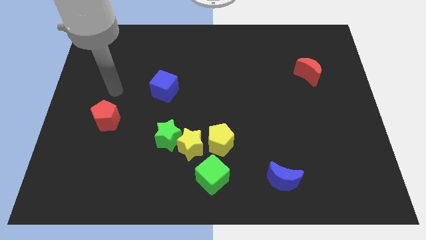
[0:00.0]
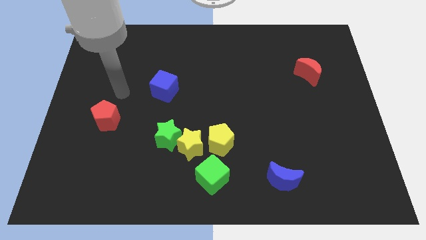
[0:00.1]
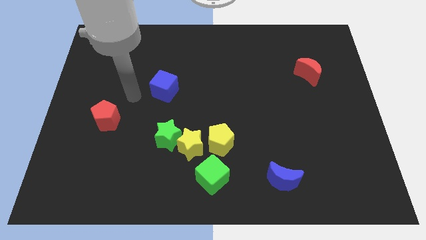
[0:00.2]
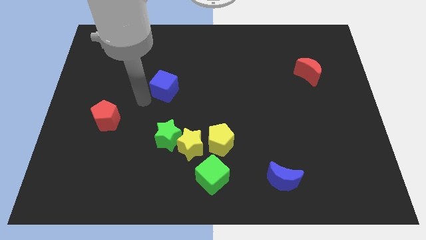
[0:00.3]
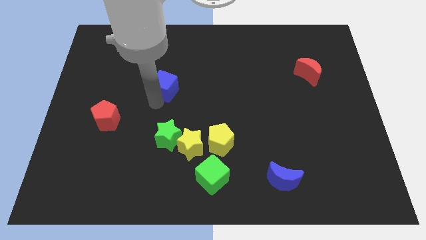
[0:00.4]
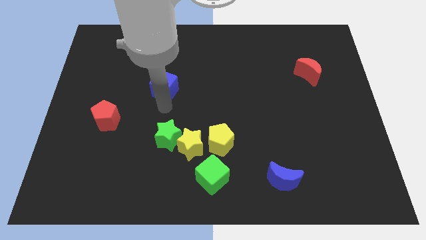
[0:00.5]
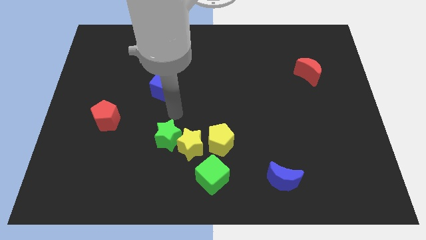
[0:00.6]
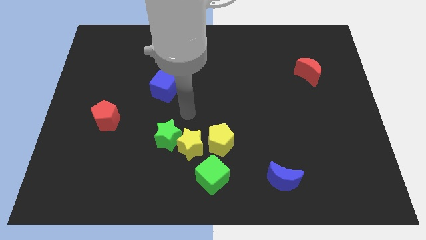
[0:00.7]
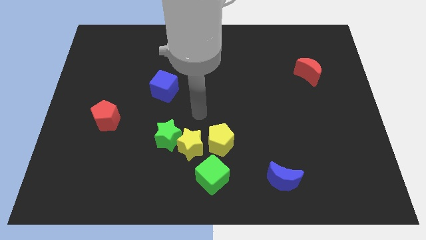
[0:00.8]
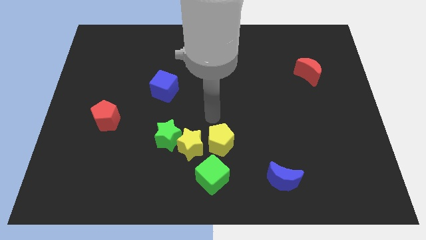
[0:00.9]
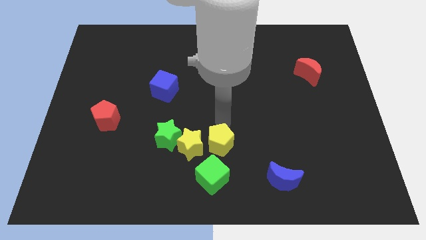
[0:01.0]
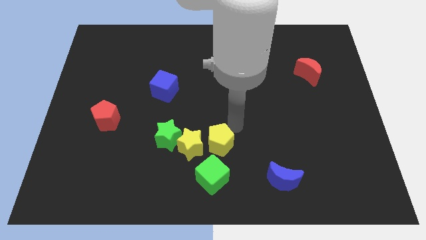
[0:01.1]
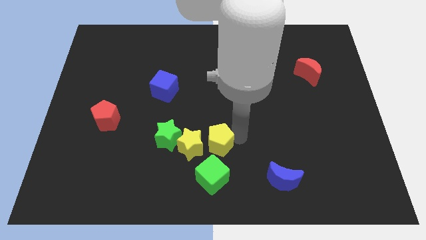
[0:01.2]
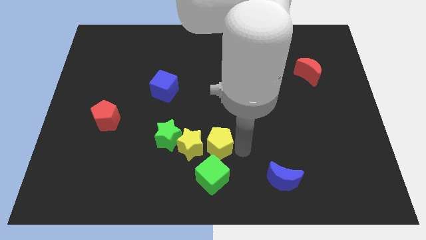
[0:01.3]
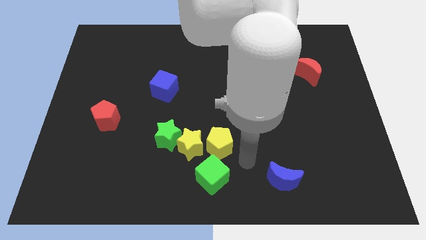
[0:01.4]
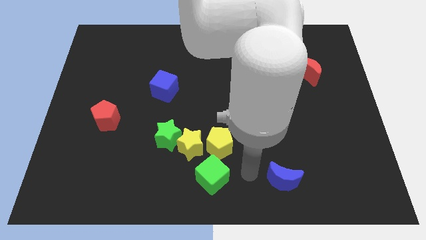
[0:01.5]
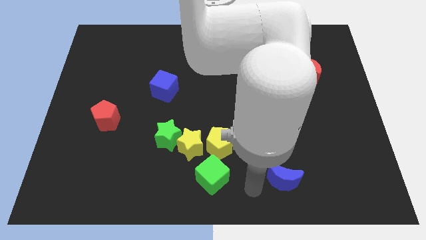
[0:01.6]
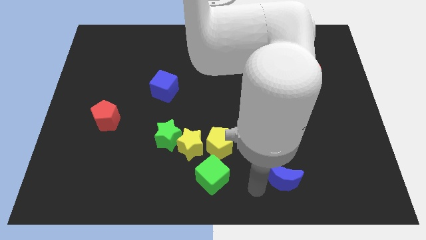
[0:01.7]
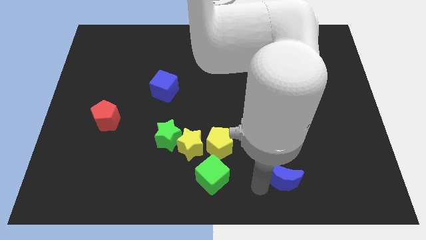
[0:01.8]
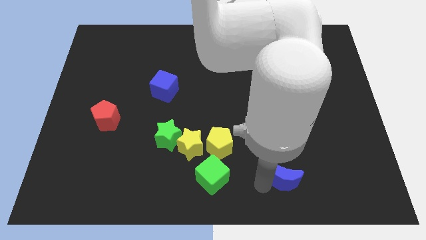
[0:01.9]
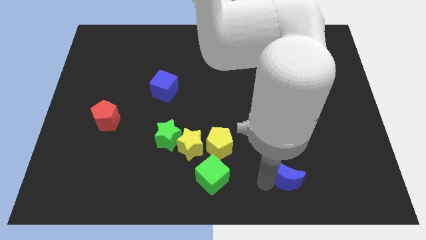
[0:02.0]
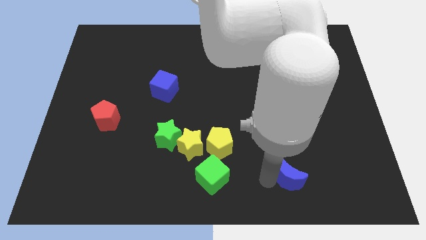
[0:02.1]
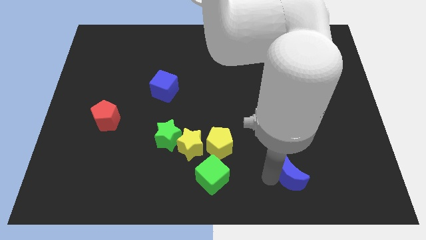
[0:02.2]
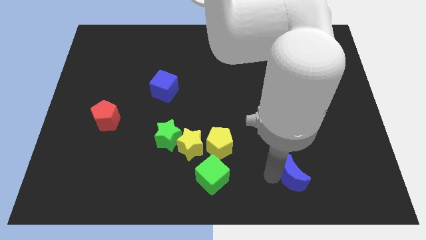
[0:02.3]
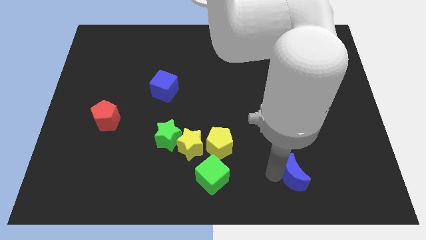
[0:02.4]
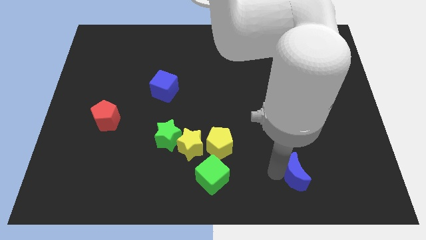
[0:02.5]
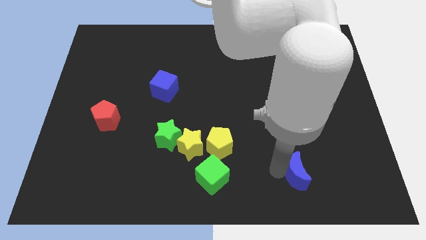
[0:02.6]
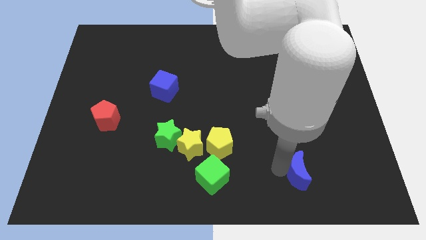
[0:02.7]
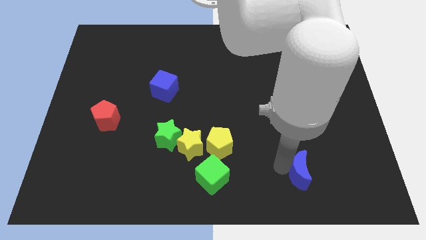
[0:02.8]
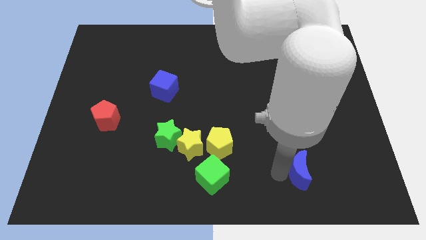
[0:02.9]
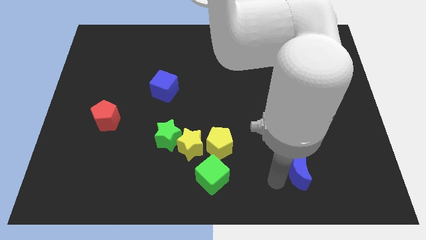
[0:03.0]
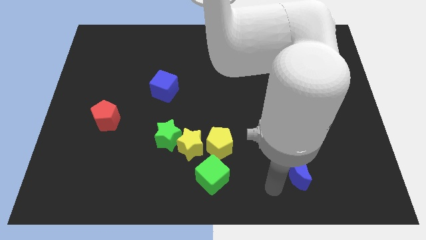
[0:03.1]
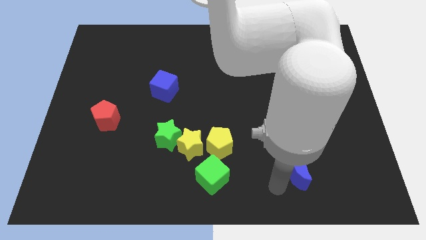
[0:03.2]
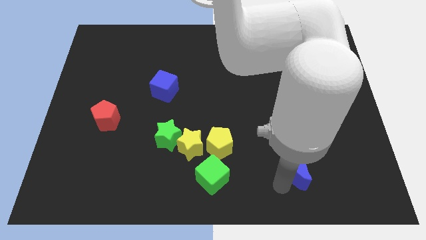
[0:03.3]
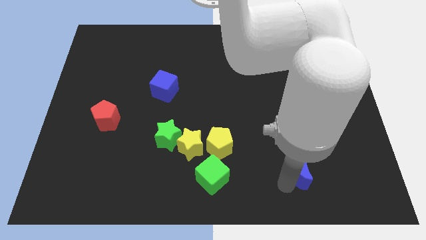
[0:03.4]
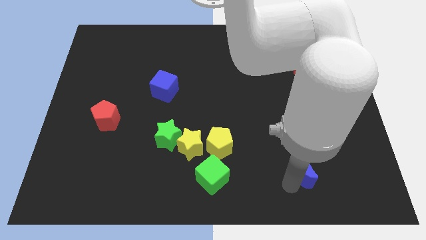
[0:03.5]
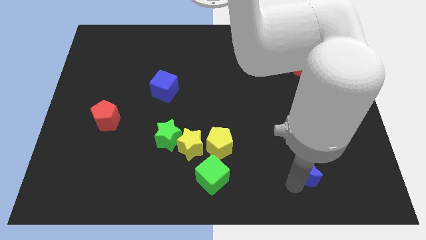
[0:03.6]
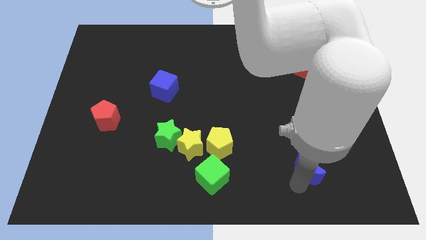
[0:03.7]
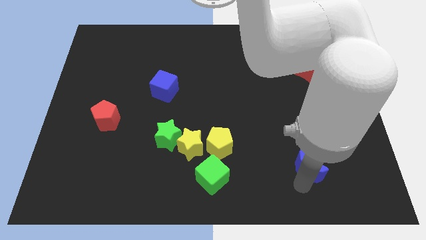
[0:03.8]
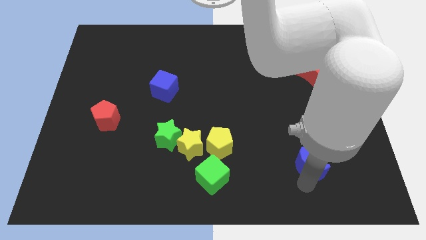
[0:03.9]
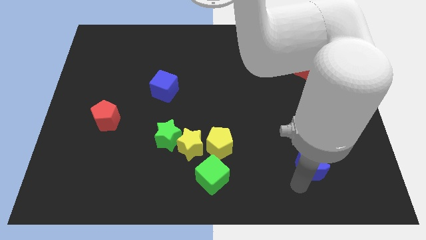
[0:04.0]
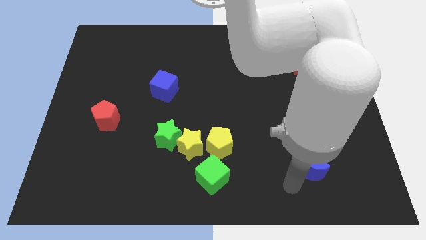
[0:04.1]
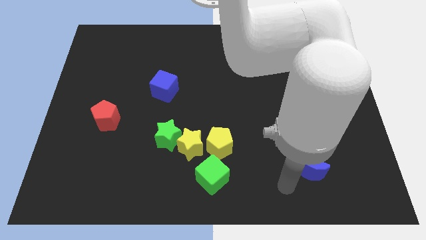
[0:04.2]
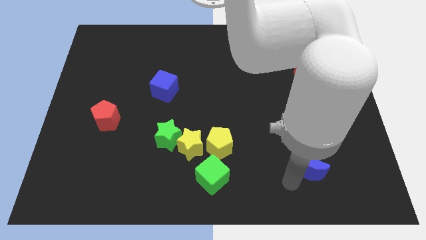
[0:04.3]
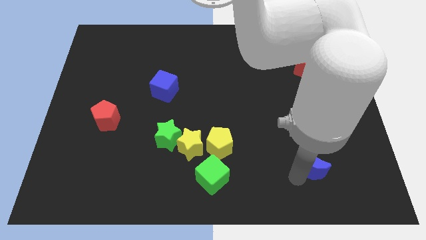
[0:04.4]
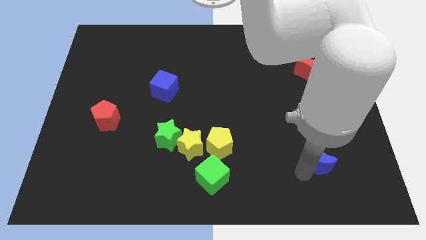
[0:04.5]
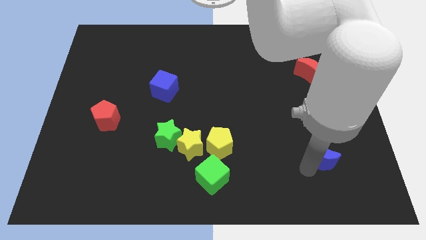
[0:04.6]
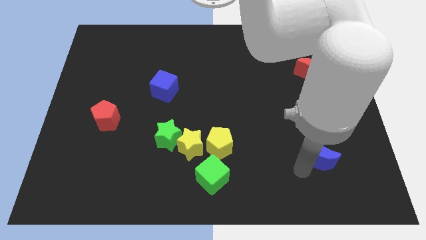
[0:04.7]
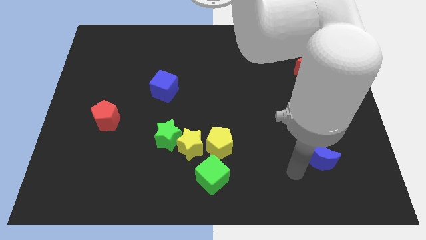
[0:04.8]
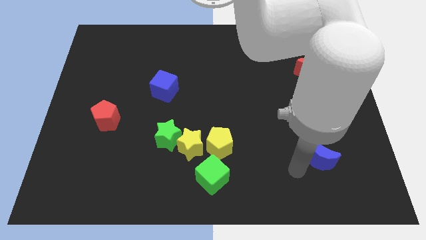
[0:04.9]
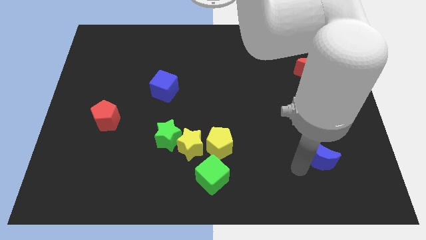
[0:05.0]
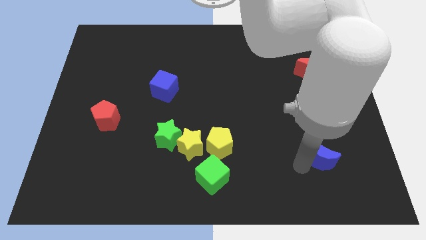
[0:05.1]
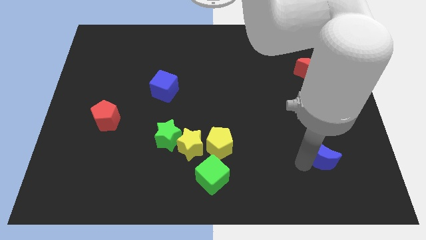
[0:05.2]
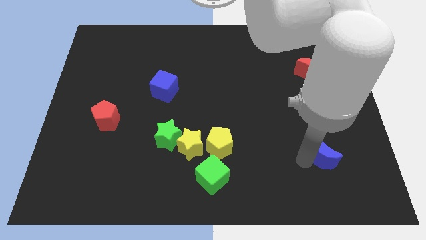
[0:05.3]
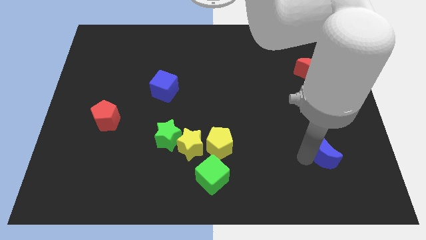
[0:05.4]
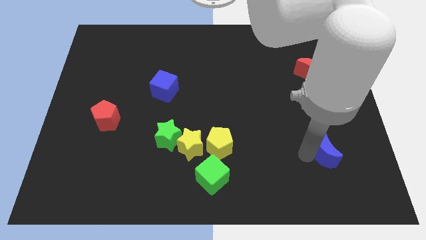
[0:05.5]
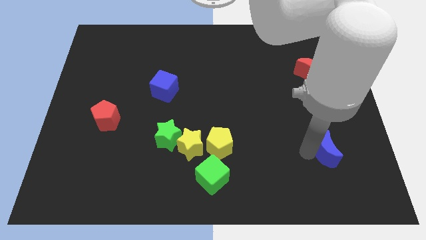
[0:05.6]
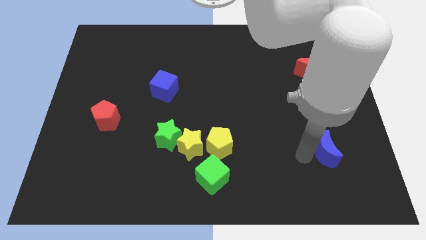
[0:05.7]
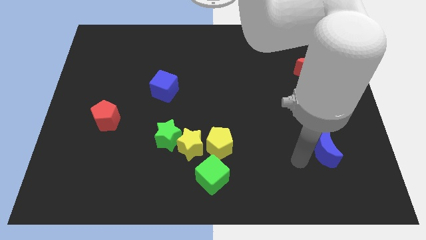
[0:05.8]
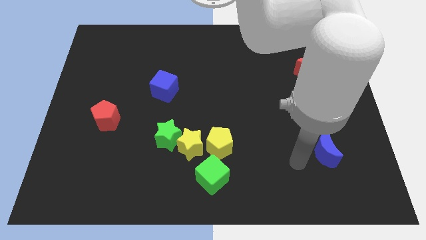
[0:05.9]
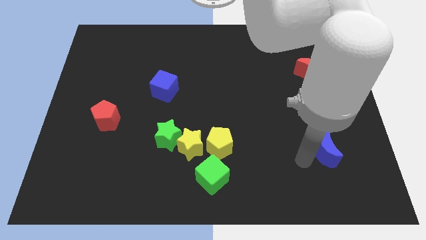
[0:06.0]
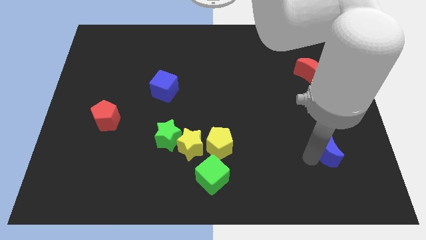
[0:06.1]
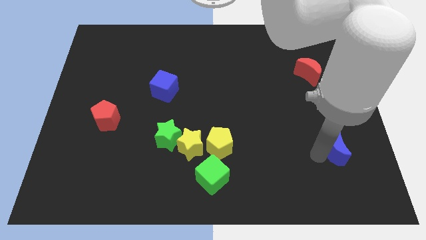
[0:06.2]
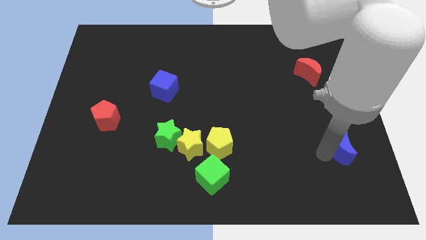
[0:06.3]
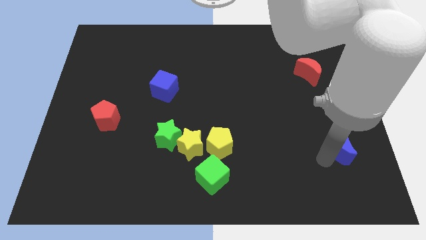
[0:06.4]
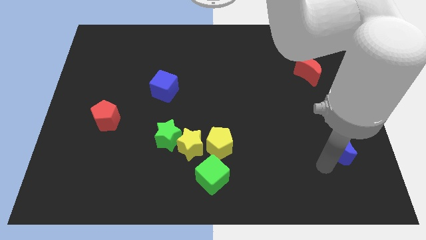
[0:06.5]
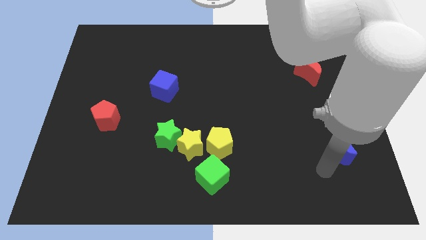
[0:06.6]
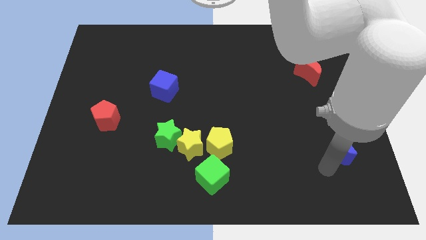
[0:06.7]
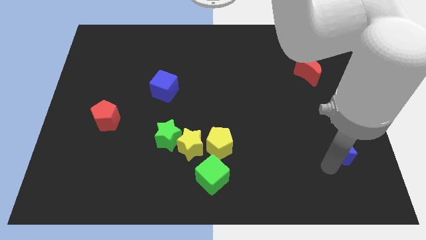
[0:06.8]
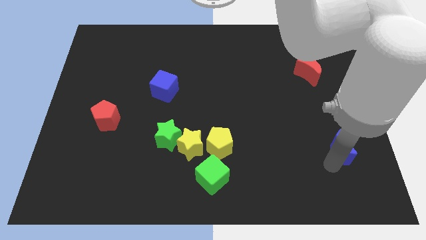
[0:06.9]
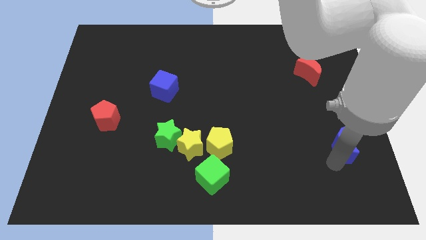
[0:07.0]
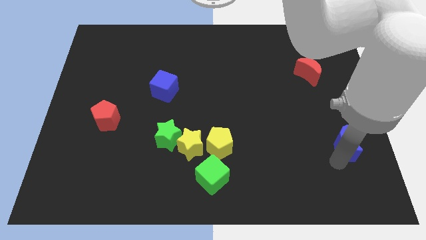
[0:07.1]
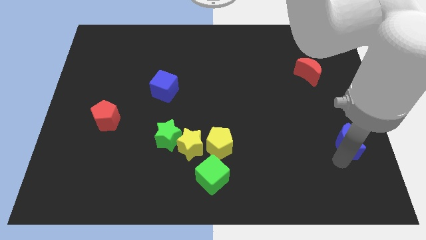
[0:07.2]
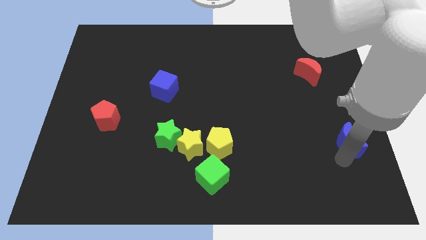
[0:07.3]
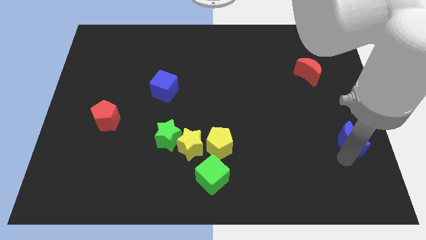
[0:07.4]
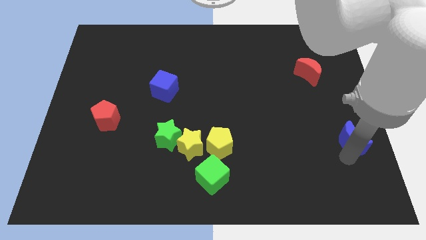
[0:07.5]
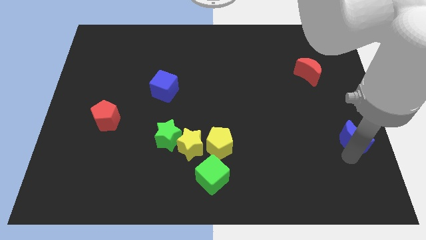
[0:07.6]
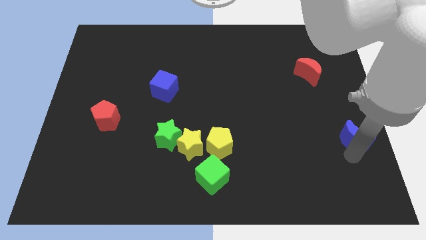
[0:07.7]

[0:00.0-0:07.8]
push the blue moon to the right side
